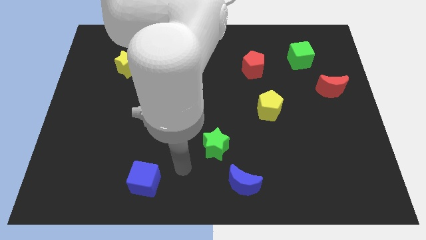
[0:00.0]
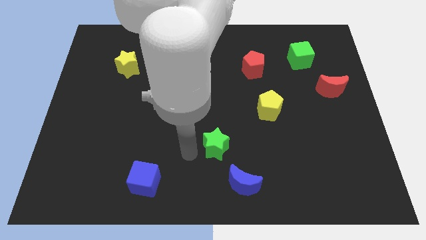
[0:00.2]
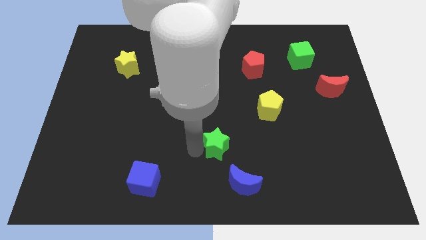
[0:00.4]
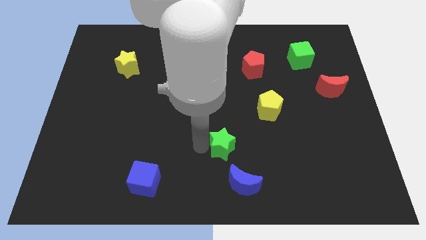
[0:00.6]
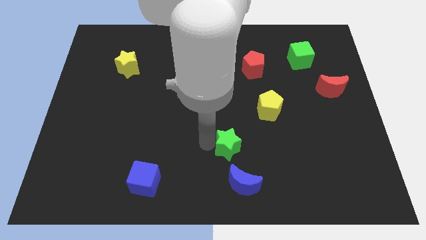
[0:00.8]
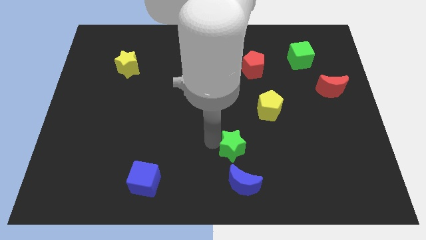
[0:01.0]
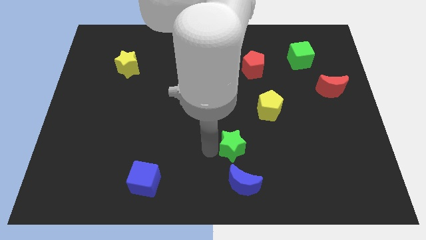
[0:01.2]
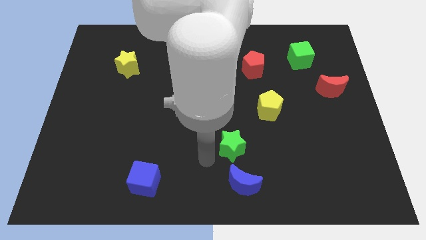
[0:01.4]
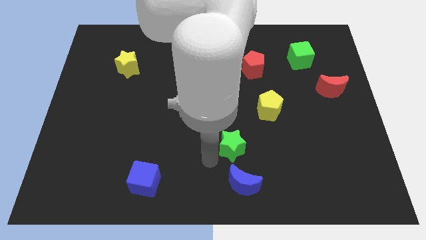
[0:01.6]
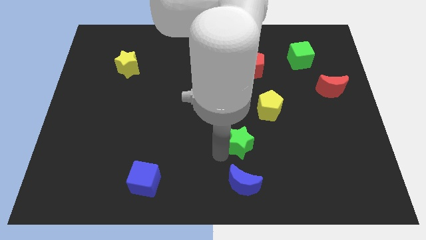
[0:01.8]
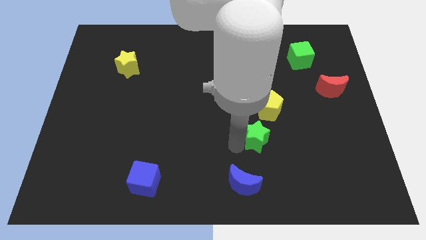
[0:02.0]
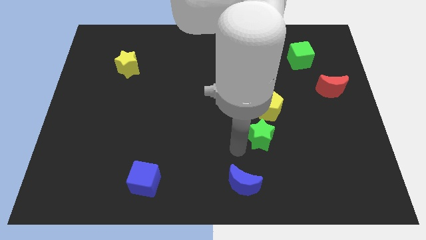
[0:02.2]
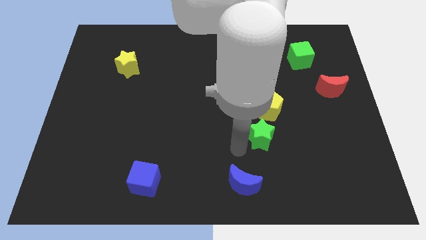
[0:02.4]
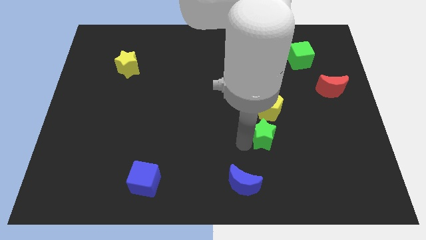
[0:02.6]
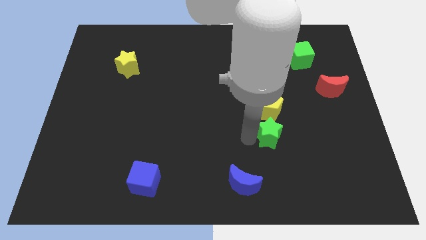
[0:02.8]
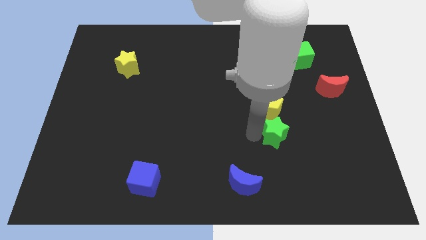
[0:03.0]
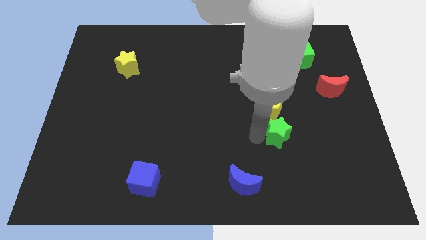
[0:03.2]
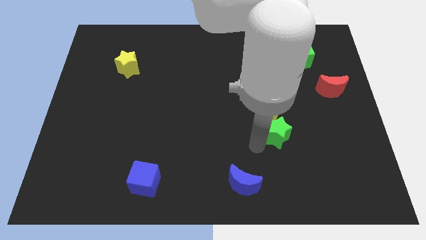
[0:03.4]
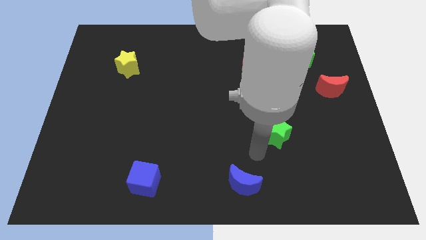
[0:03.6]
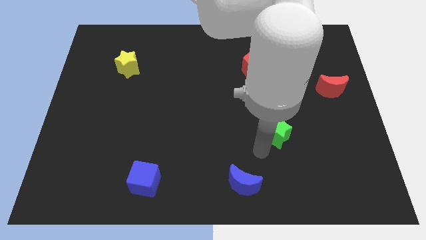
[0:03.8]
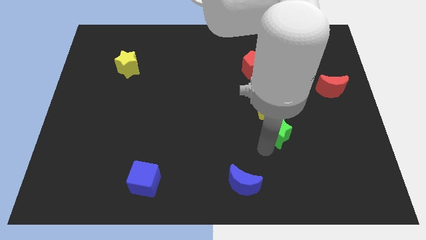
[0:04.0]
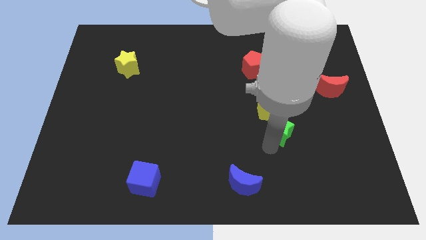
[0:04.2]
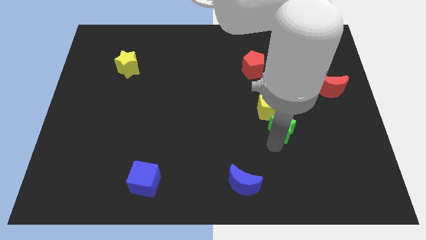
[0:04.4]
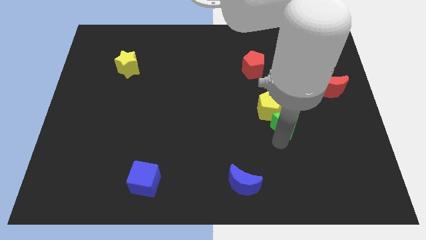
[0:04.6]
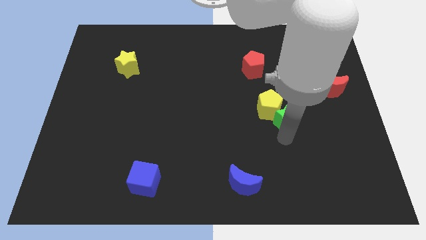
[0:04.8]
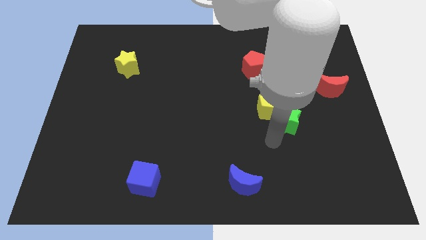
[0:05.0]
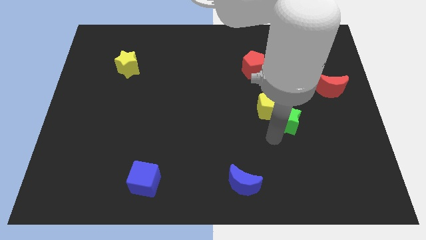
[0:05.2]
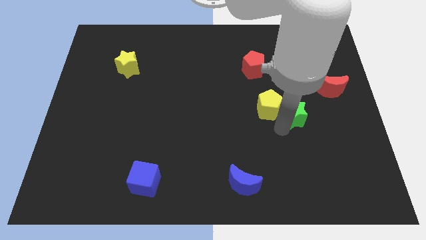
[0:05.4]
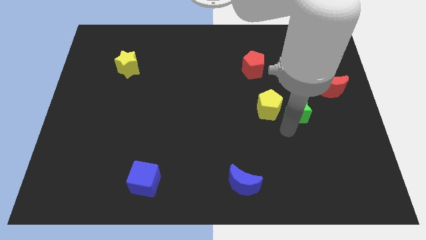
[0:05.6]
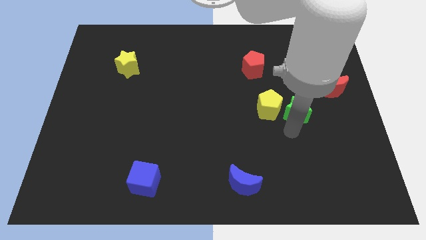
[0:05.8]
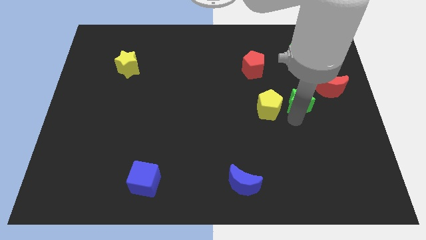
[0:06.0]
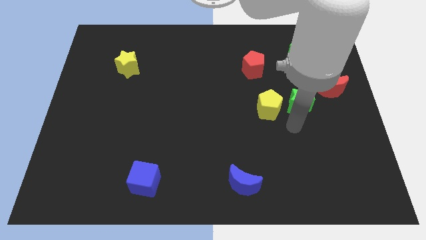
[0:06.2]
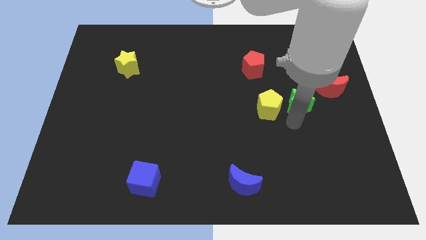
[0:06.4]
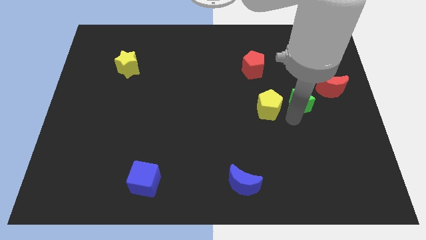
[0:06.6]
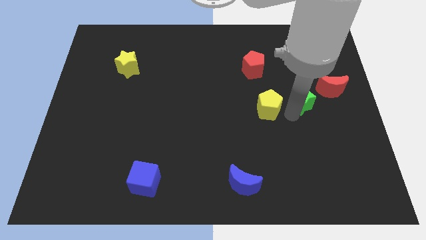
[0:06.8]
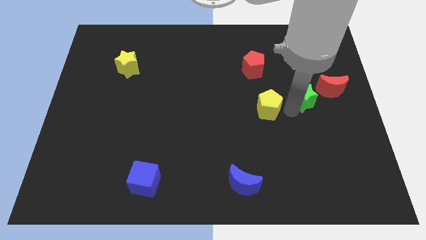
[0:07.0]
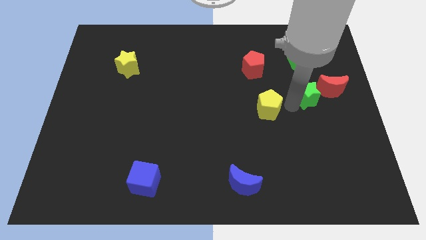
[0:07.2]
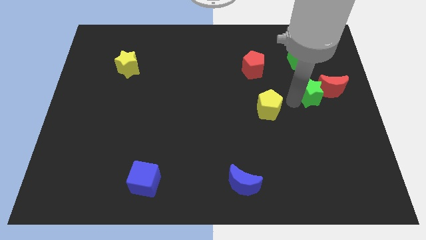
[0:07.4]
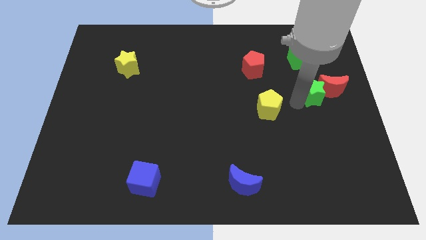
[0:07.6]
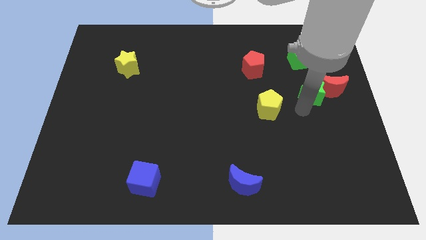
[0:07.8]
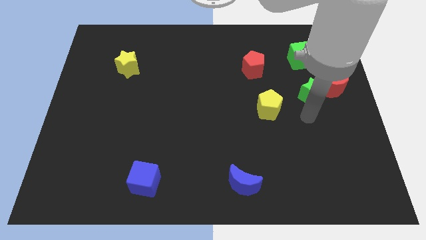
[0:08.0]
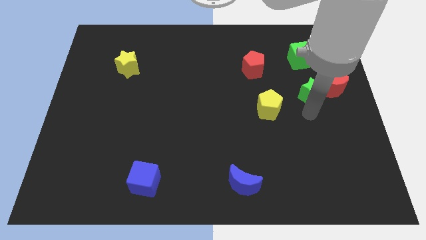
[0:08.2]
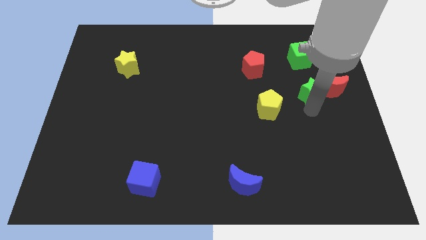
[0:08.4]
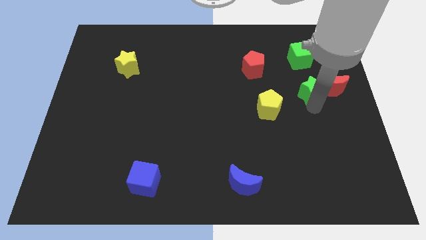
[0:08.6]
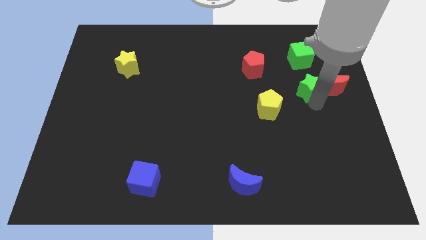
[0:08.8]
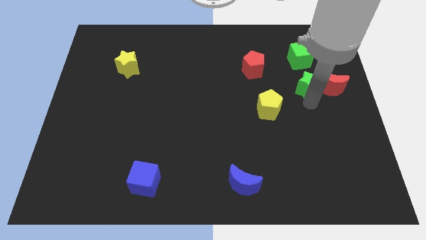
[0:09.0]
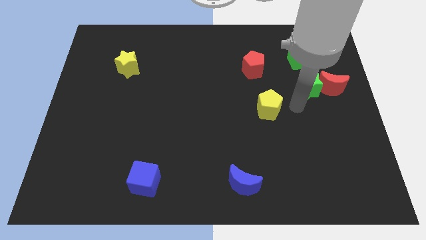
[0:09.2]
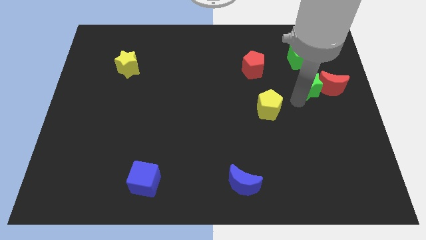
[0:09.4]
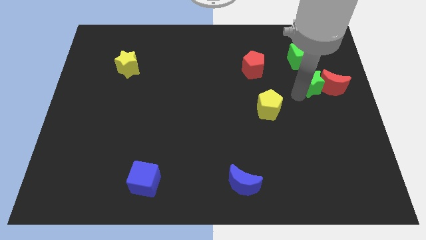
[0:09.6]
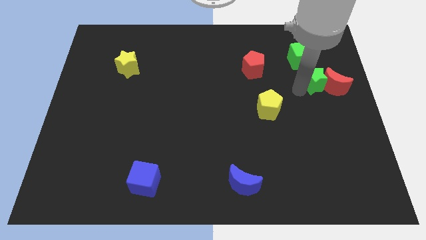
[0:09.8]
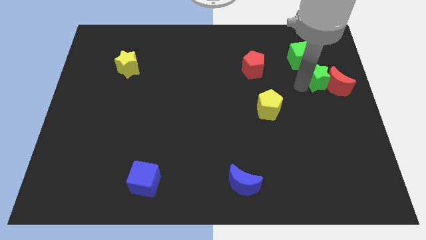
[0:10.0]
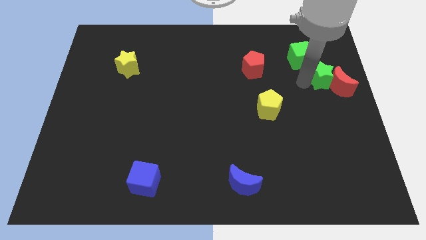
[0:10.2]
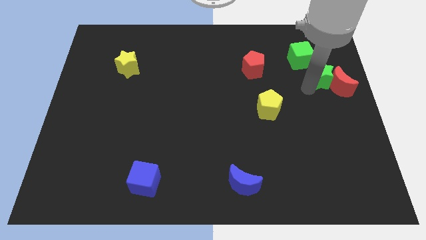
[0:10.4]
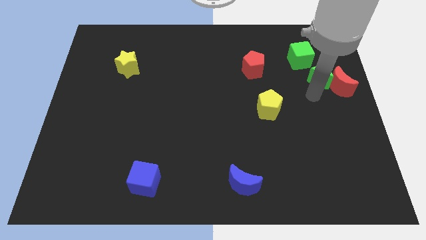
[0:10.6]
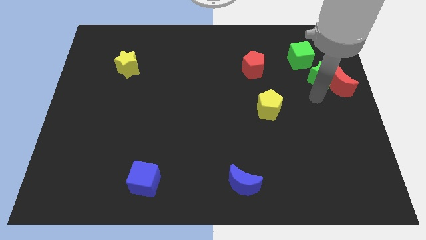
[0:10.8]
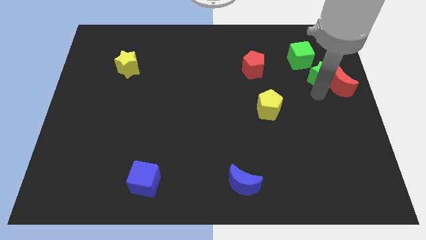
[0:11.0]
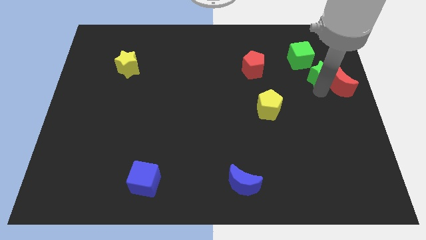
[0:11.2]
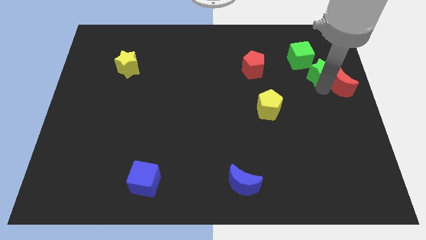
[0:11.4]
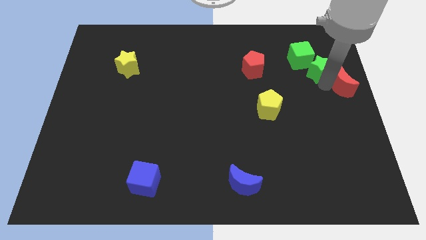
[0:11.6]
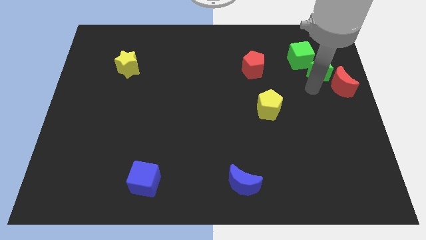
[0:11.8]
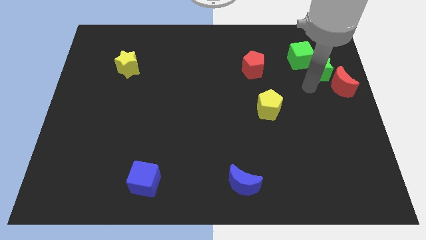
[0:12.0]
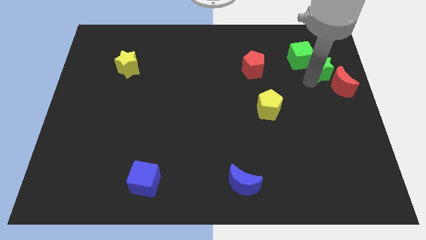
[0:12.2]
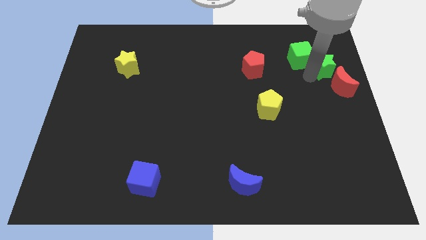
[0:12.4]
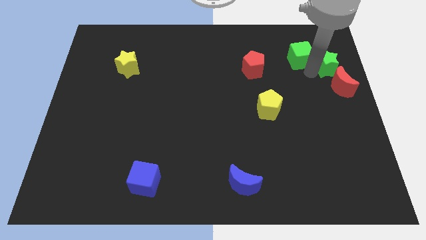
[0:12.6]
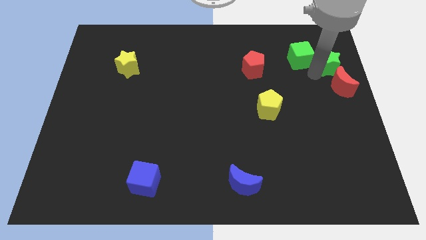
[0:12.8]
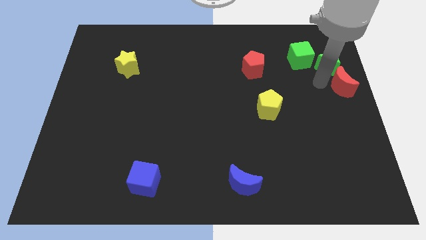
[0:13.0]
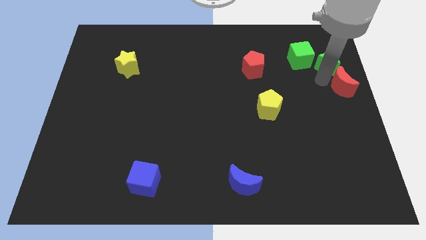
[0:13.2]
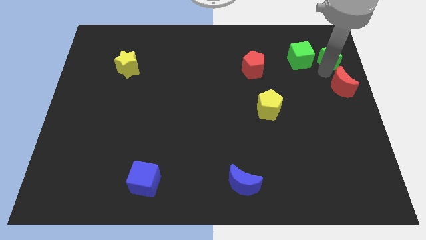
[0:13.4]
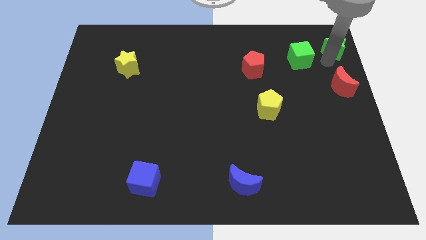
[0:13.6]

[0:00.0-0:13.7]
slide the green star to the upper right corner

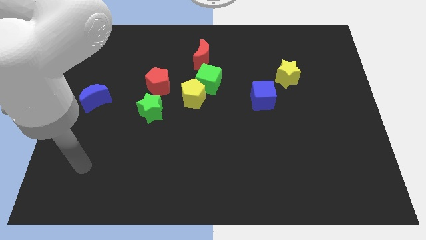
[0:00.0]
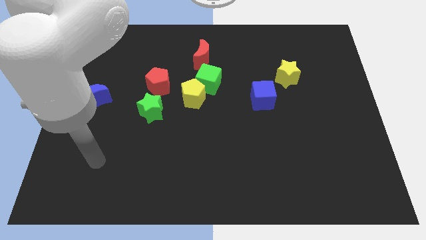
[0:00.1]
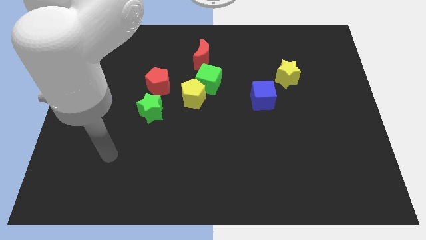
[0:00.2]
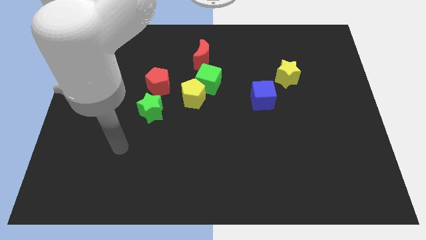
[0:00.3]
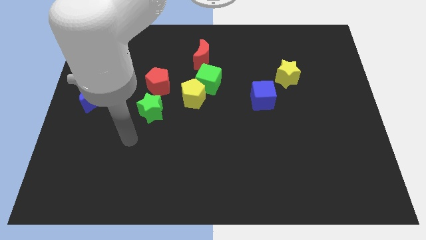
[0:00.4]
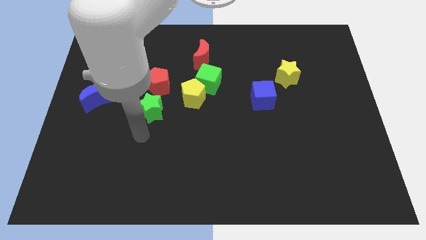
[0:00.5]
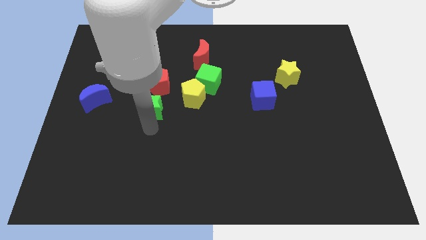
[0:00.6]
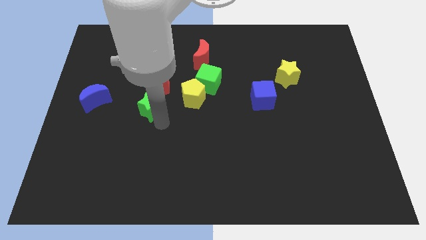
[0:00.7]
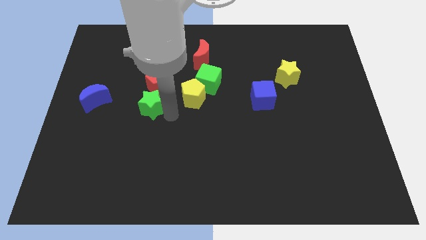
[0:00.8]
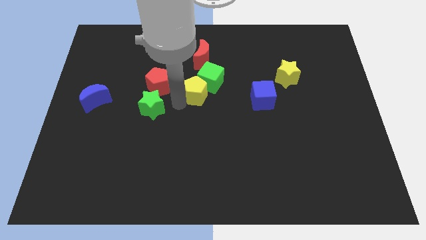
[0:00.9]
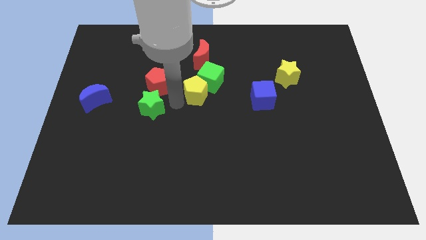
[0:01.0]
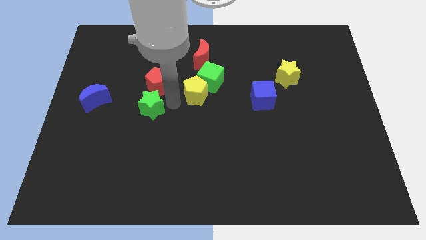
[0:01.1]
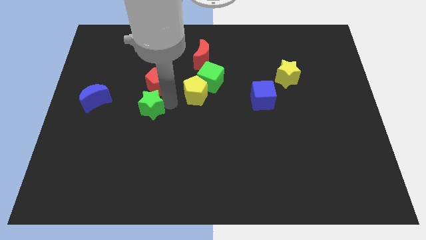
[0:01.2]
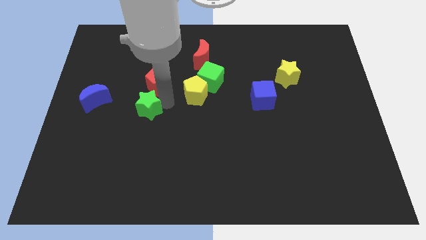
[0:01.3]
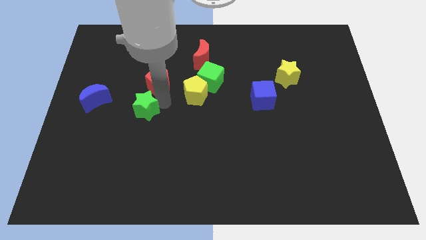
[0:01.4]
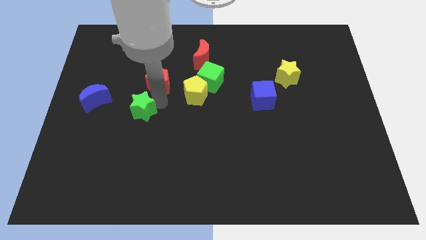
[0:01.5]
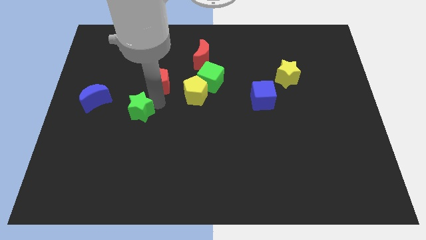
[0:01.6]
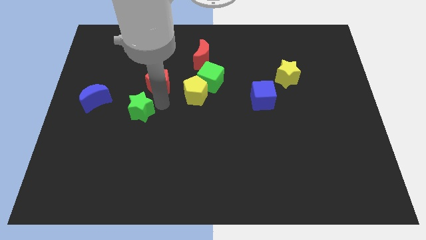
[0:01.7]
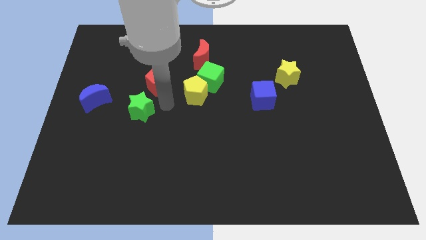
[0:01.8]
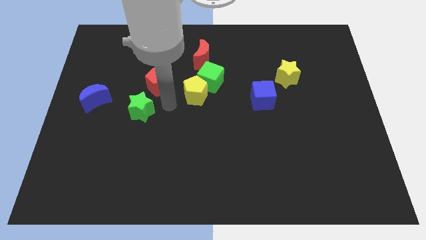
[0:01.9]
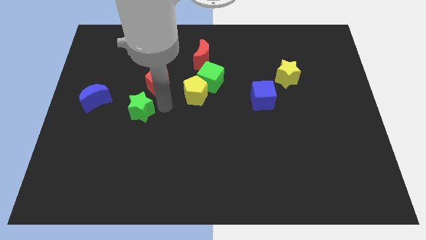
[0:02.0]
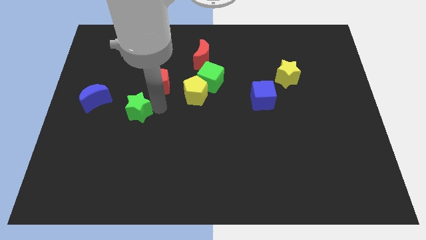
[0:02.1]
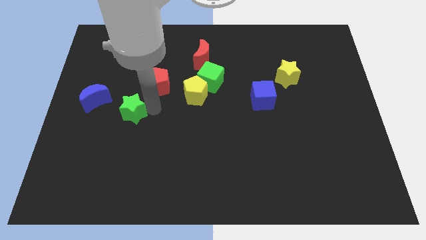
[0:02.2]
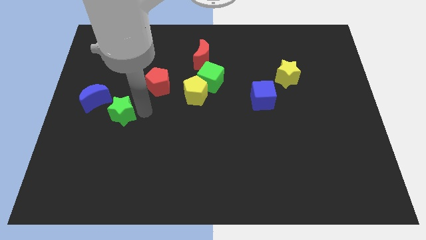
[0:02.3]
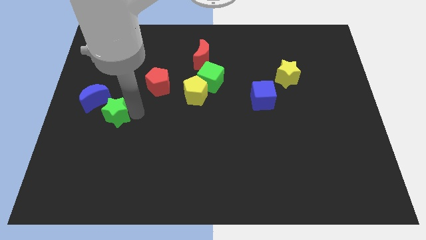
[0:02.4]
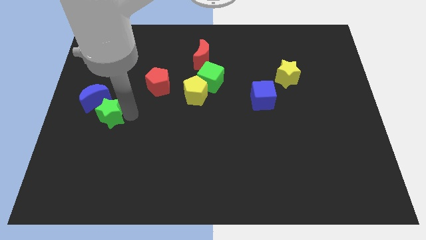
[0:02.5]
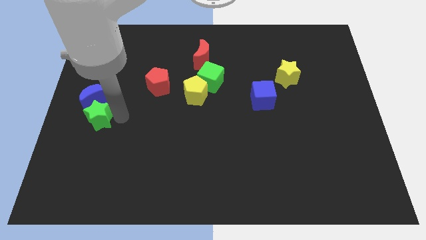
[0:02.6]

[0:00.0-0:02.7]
push the green star to the left side
